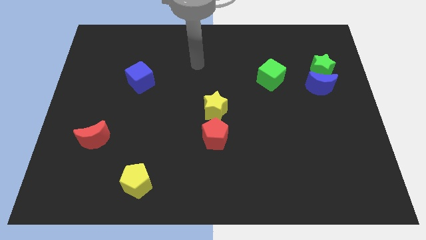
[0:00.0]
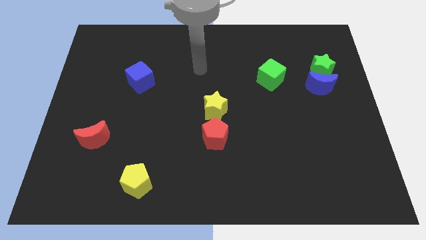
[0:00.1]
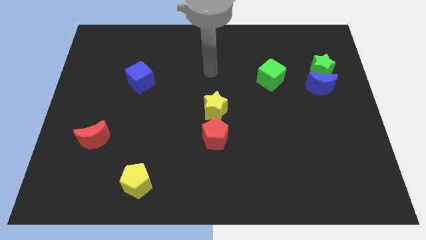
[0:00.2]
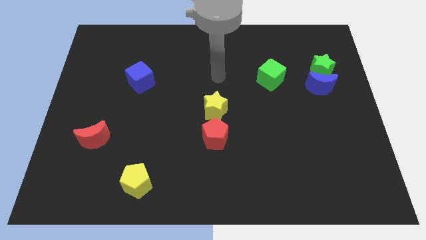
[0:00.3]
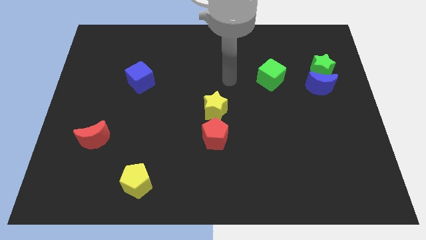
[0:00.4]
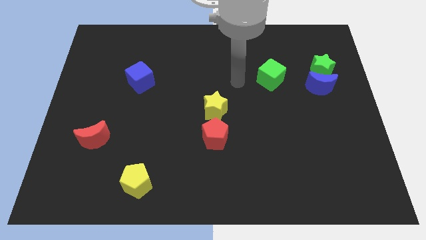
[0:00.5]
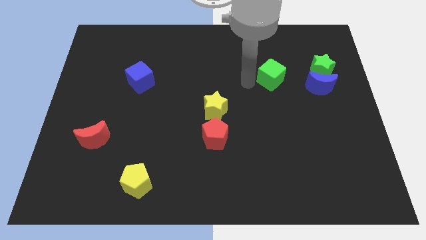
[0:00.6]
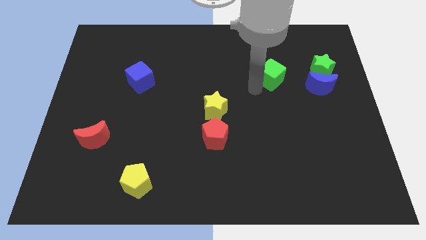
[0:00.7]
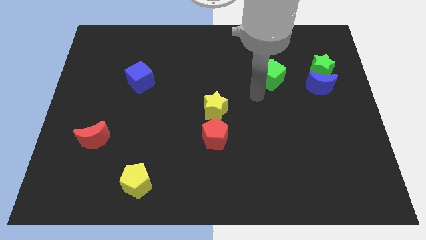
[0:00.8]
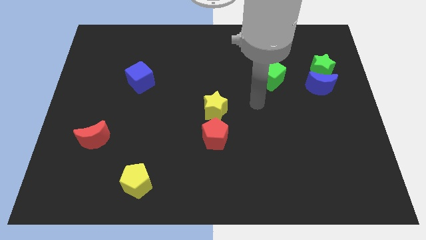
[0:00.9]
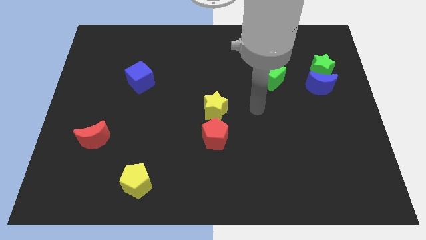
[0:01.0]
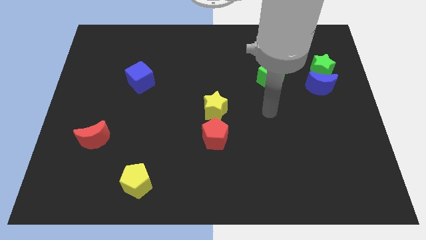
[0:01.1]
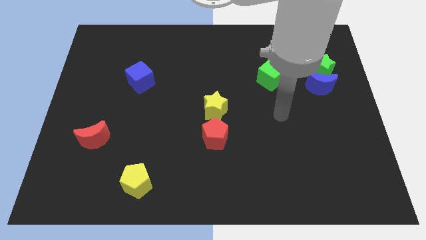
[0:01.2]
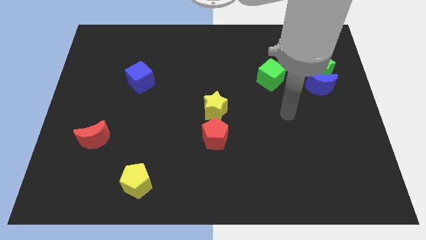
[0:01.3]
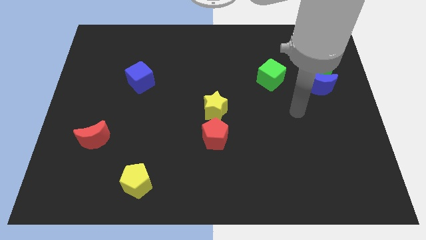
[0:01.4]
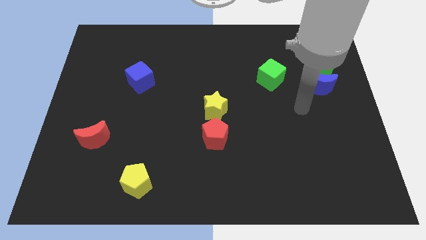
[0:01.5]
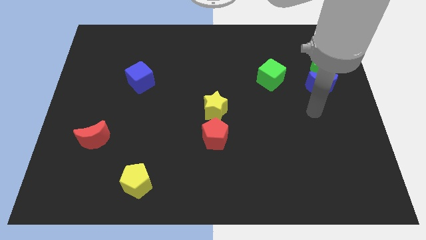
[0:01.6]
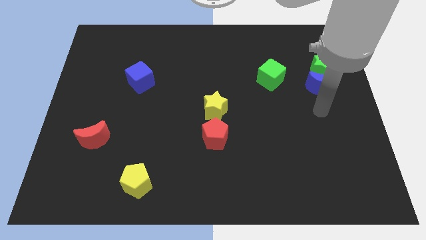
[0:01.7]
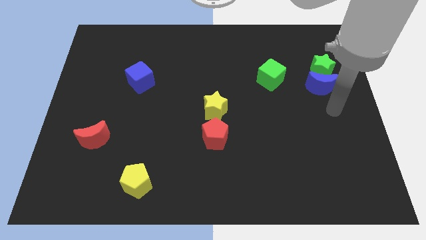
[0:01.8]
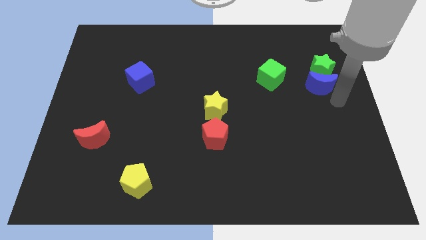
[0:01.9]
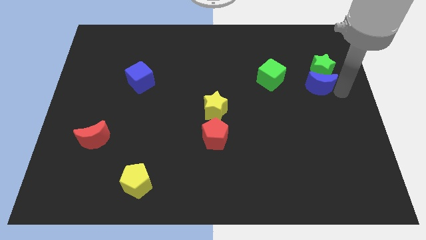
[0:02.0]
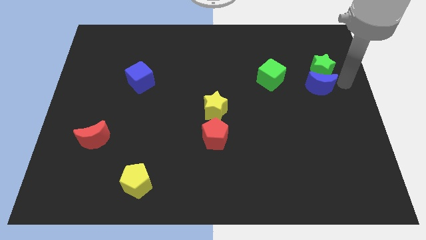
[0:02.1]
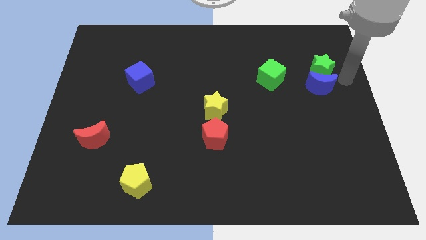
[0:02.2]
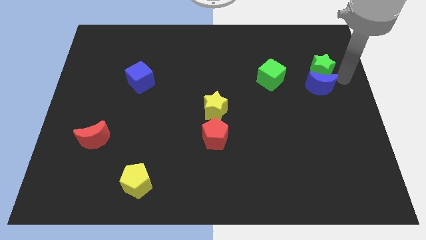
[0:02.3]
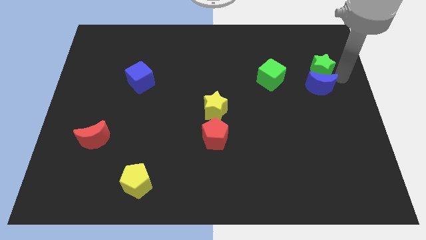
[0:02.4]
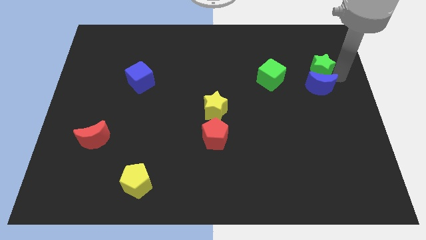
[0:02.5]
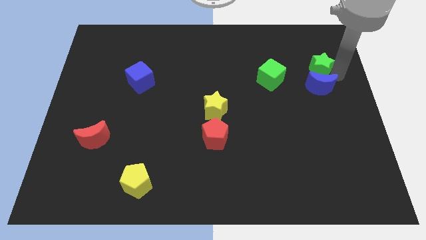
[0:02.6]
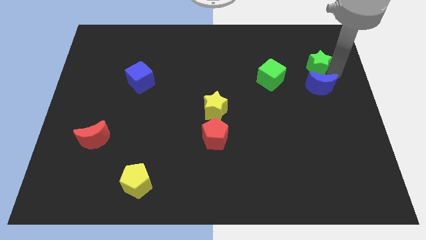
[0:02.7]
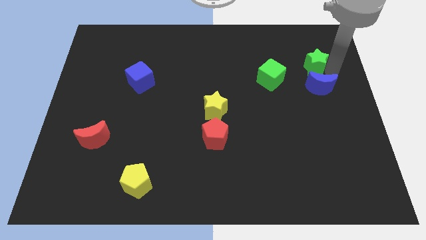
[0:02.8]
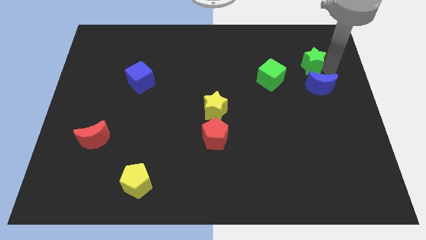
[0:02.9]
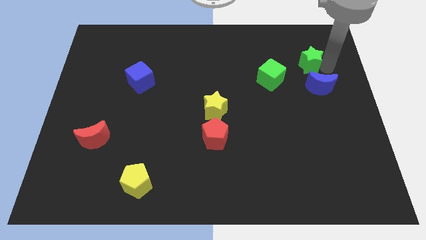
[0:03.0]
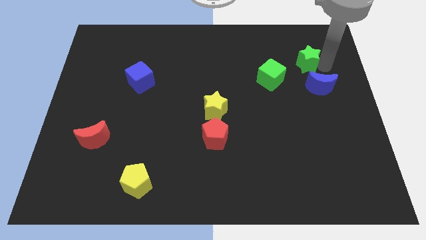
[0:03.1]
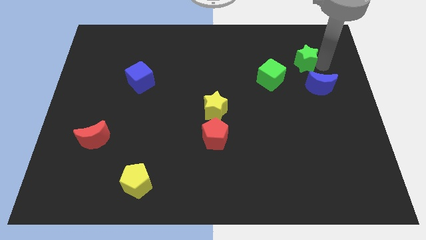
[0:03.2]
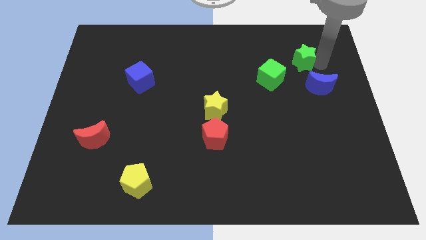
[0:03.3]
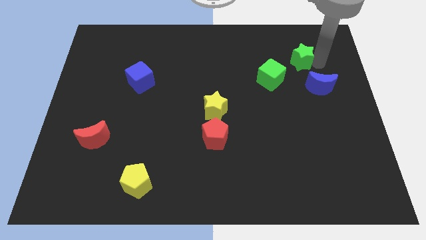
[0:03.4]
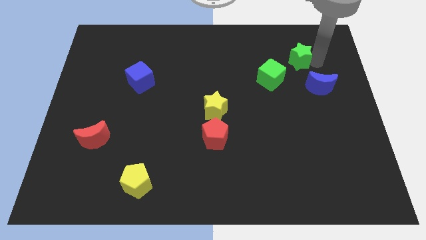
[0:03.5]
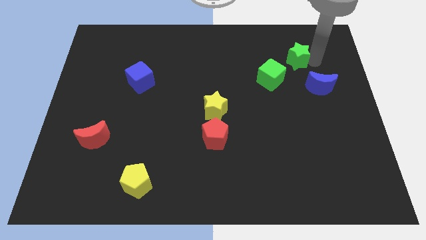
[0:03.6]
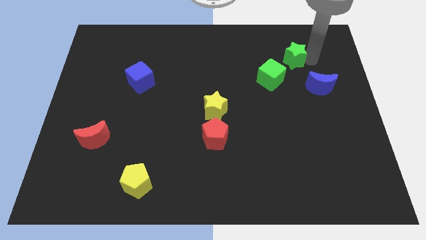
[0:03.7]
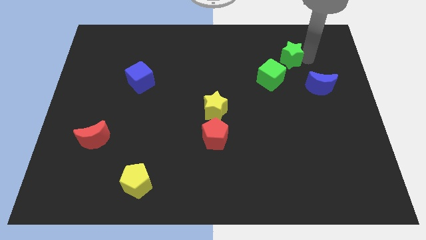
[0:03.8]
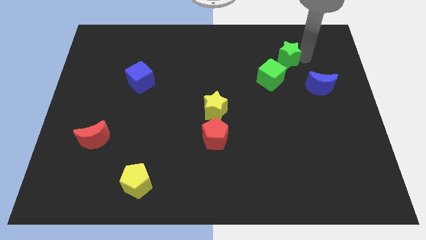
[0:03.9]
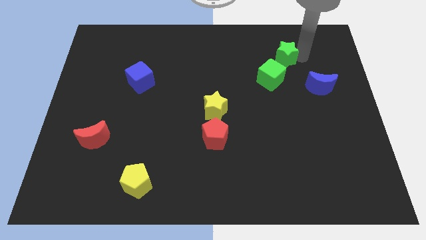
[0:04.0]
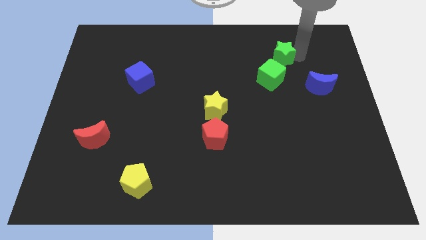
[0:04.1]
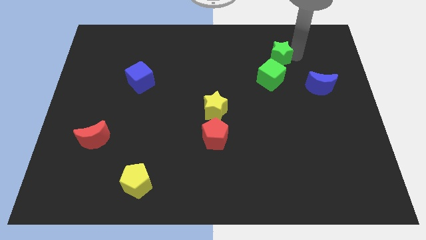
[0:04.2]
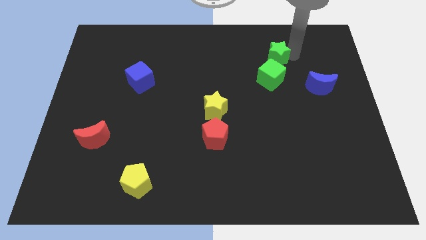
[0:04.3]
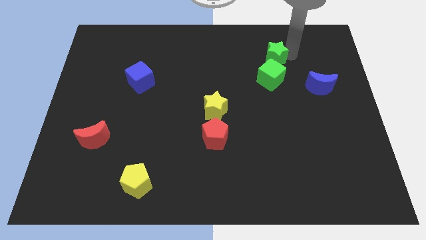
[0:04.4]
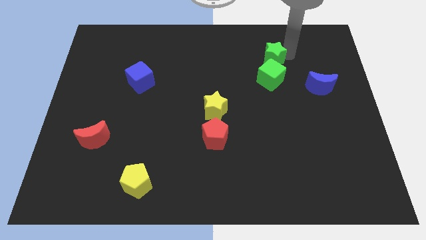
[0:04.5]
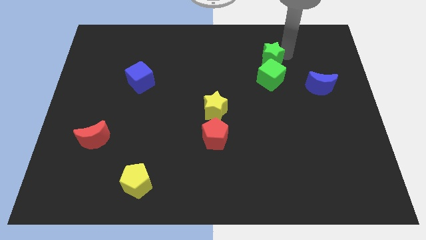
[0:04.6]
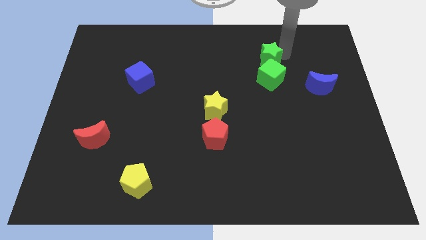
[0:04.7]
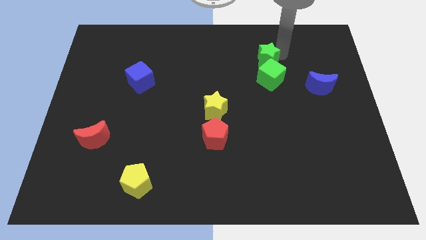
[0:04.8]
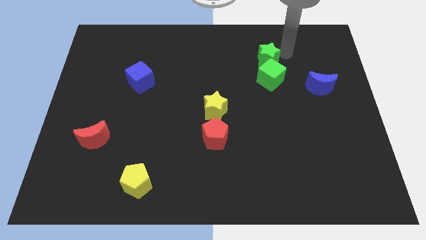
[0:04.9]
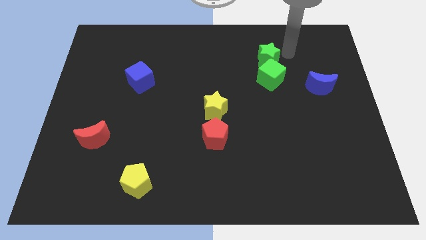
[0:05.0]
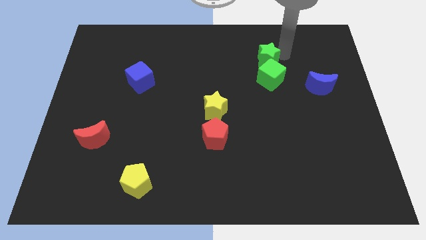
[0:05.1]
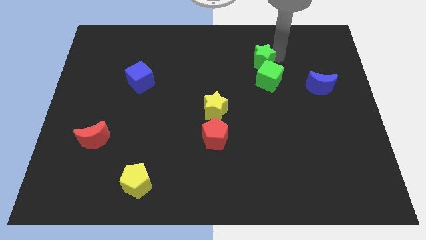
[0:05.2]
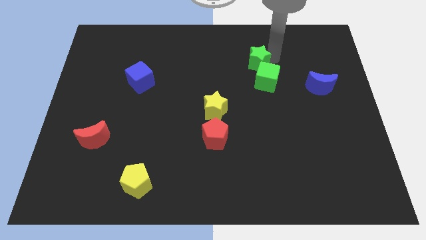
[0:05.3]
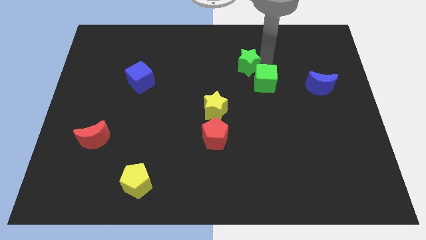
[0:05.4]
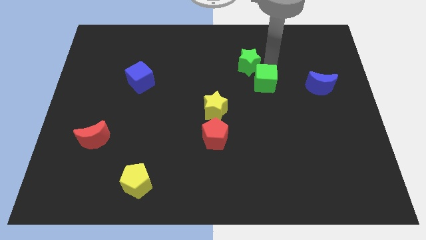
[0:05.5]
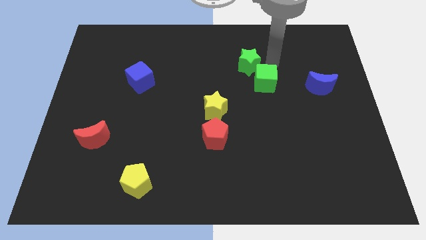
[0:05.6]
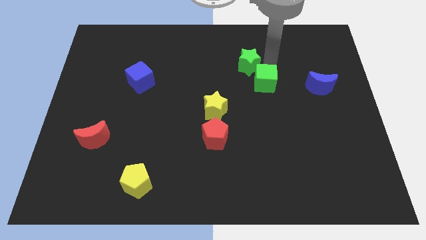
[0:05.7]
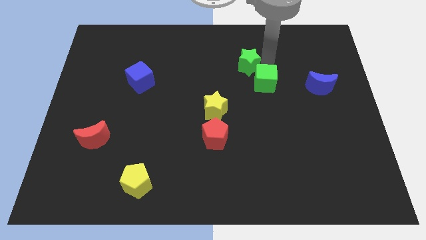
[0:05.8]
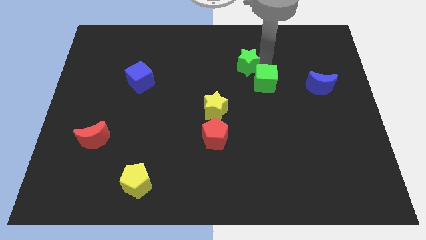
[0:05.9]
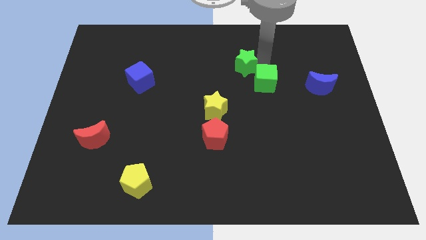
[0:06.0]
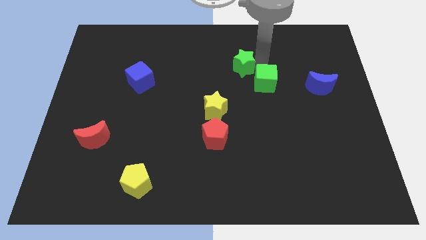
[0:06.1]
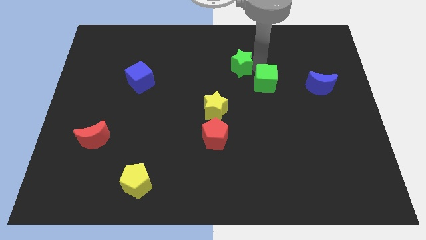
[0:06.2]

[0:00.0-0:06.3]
move the green star to the left

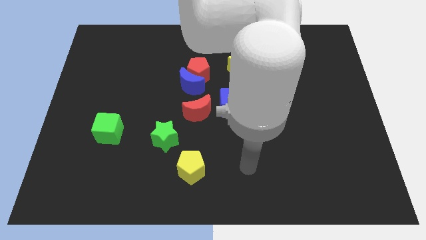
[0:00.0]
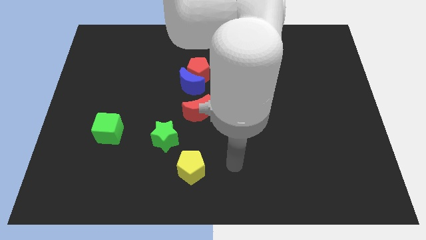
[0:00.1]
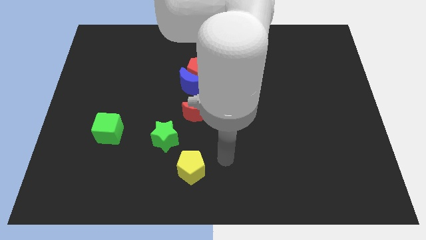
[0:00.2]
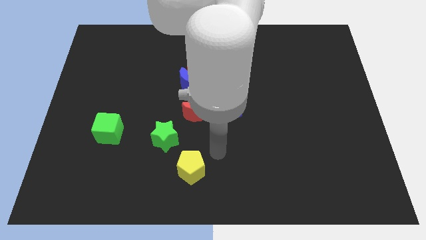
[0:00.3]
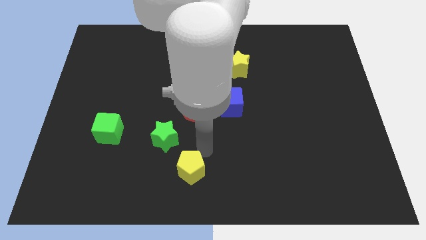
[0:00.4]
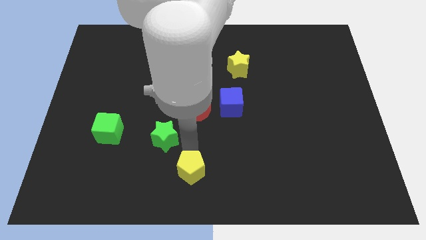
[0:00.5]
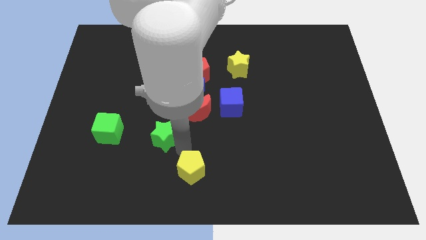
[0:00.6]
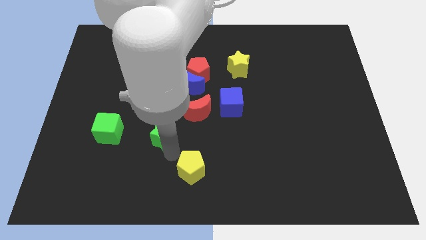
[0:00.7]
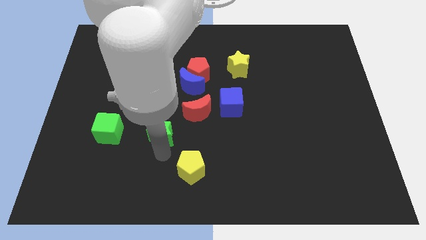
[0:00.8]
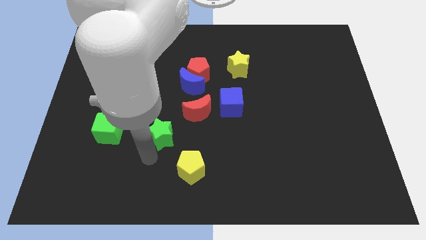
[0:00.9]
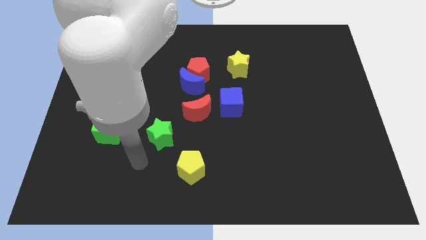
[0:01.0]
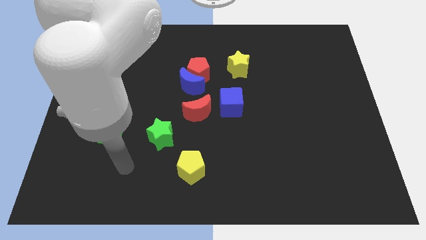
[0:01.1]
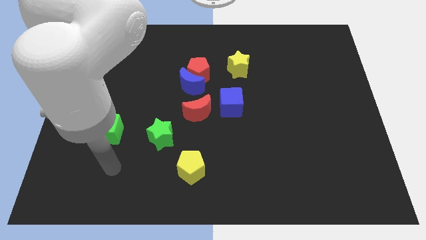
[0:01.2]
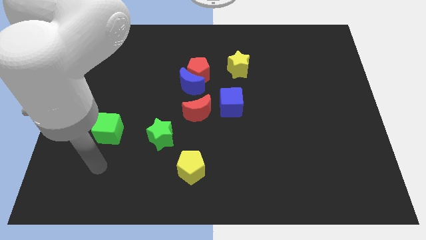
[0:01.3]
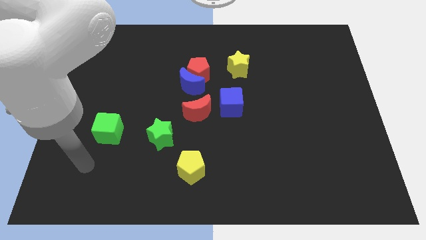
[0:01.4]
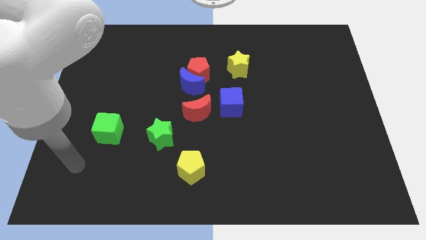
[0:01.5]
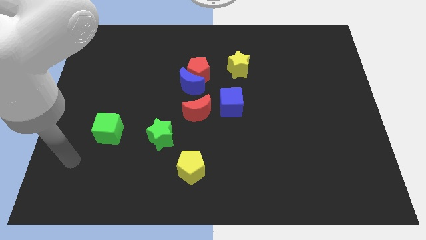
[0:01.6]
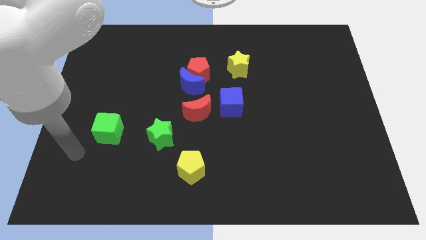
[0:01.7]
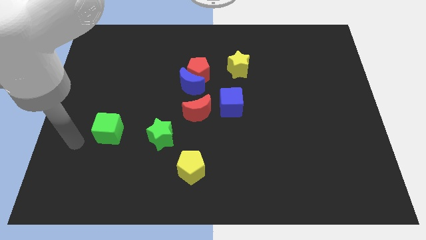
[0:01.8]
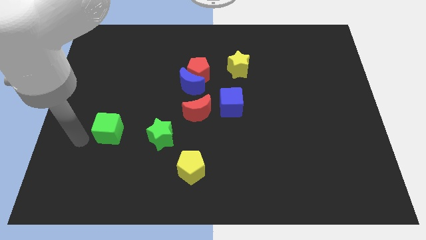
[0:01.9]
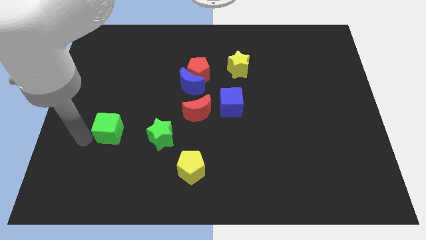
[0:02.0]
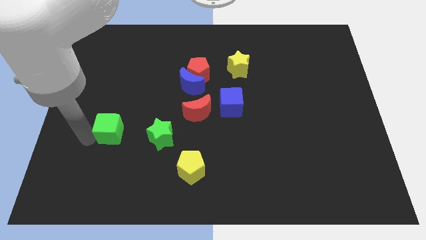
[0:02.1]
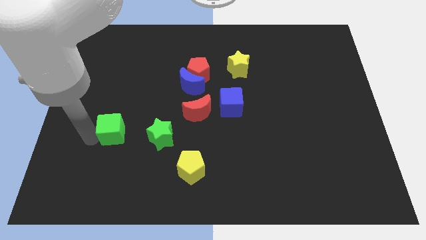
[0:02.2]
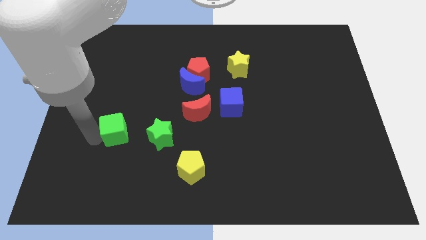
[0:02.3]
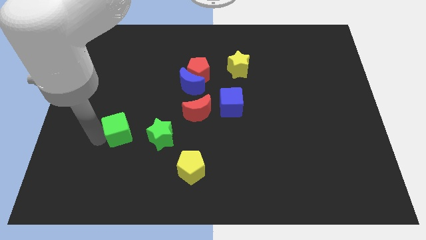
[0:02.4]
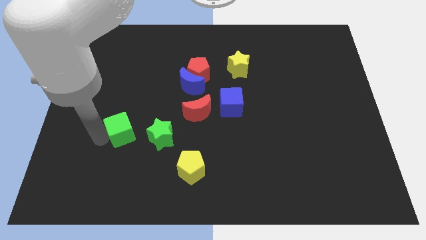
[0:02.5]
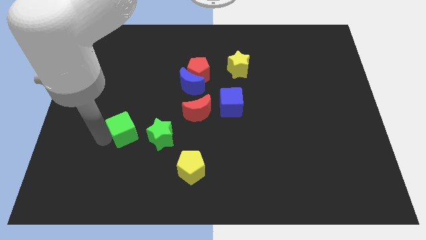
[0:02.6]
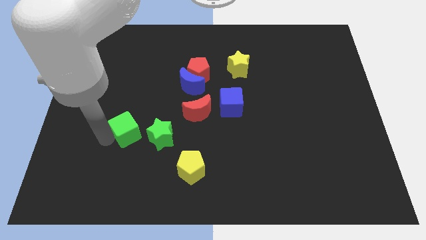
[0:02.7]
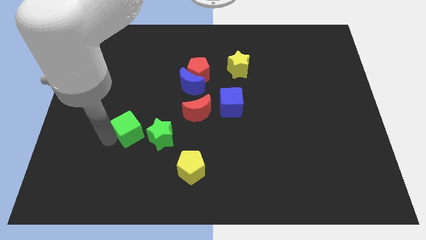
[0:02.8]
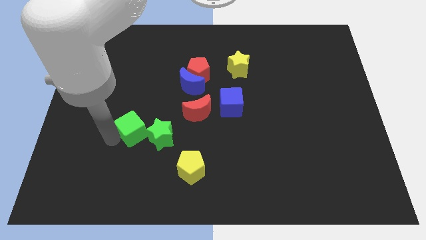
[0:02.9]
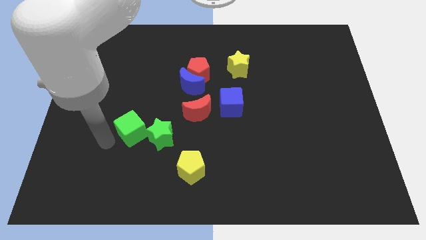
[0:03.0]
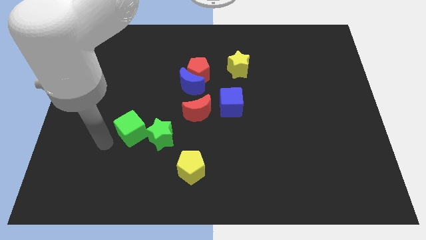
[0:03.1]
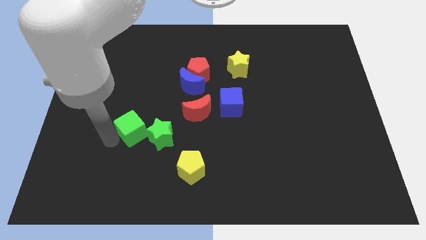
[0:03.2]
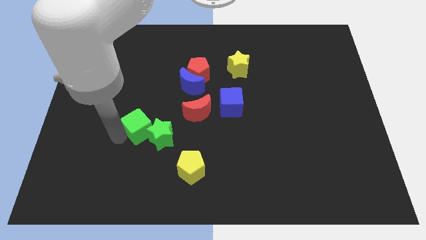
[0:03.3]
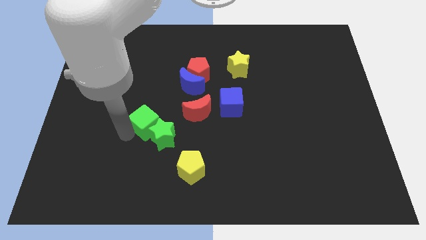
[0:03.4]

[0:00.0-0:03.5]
slightly push the green cube to the right
